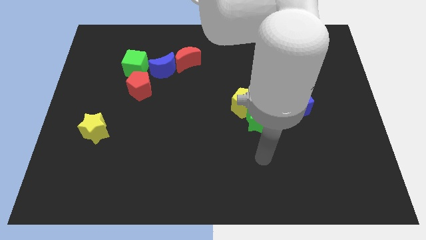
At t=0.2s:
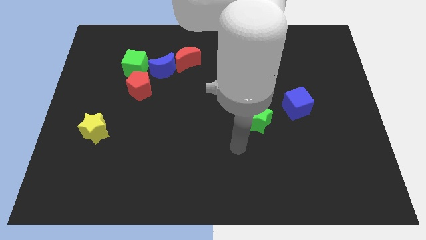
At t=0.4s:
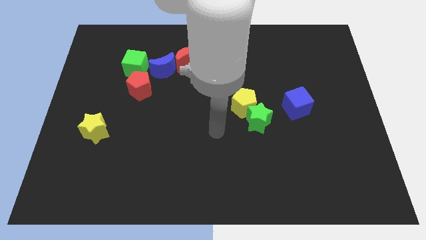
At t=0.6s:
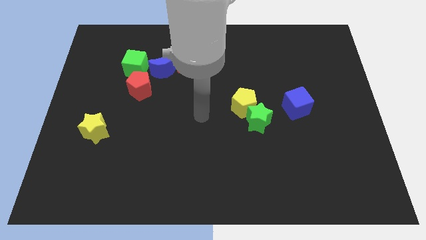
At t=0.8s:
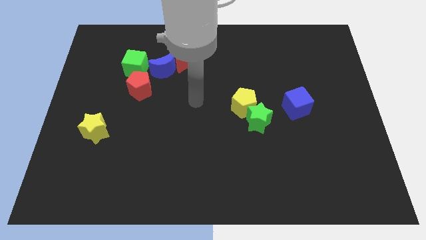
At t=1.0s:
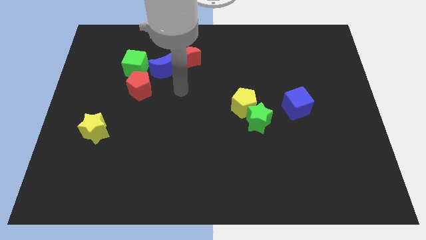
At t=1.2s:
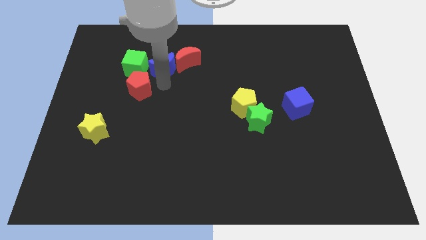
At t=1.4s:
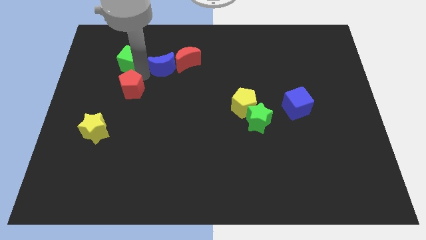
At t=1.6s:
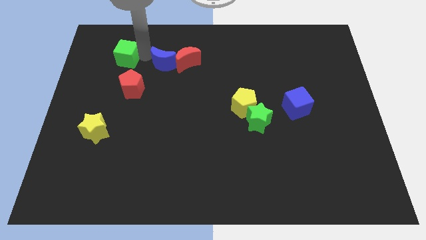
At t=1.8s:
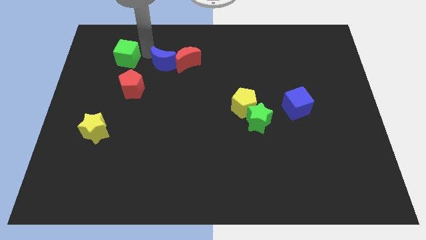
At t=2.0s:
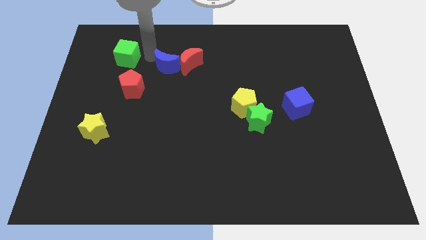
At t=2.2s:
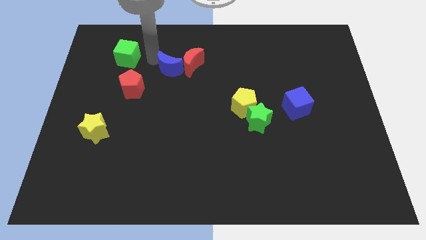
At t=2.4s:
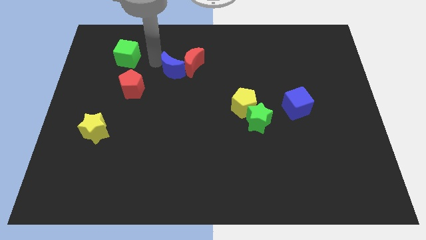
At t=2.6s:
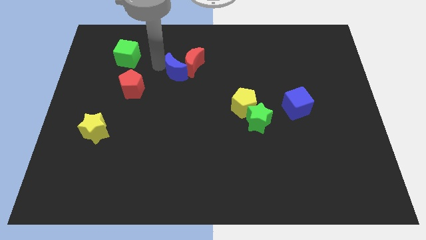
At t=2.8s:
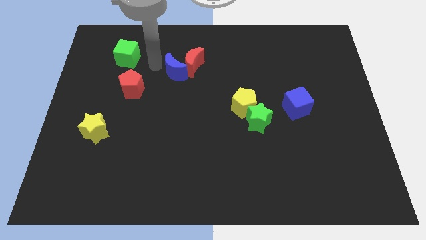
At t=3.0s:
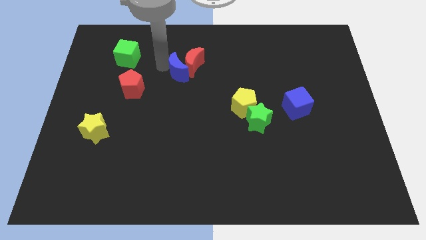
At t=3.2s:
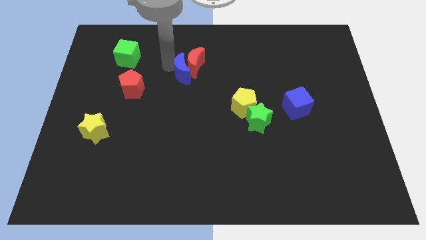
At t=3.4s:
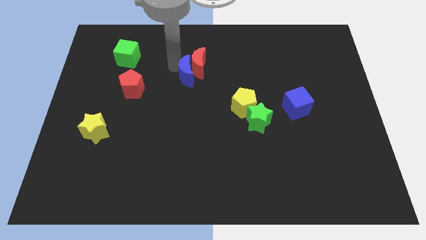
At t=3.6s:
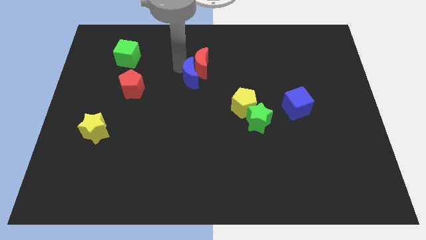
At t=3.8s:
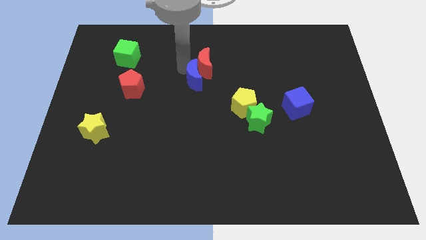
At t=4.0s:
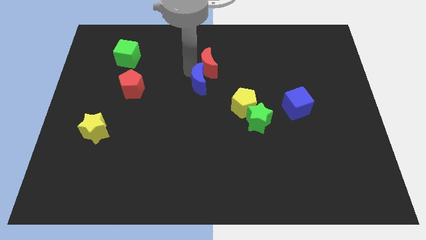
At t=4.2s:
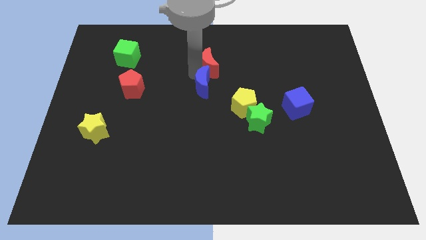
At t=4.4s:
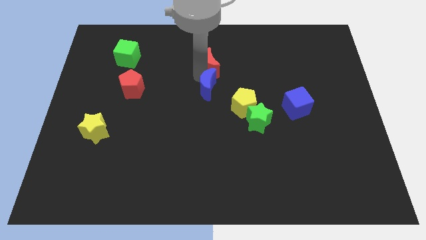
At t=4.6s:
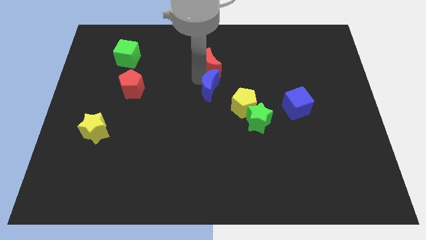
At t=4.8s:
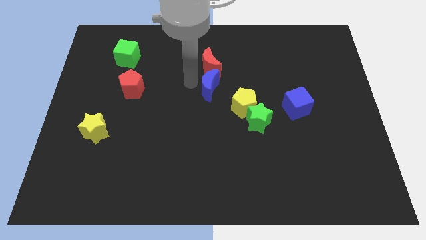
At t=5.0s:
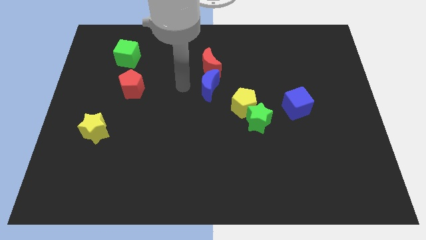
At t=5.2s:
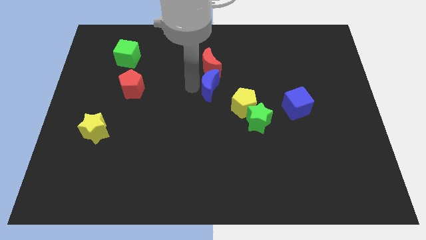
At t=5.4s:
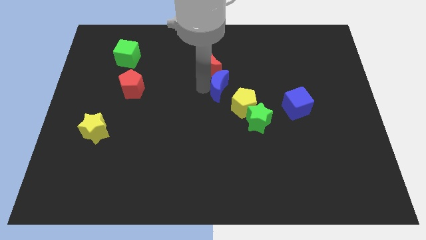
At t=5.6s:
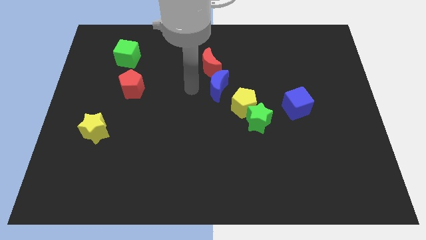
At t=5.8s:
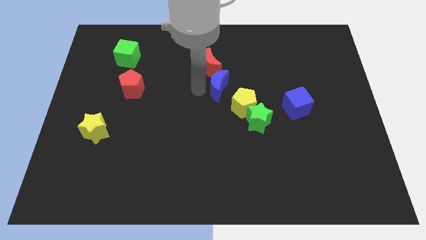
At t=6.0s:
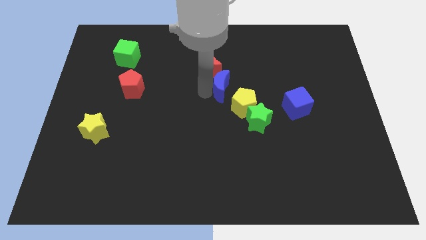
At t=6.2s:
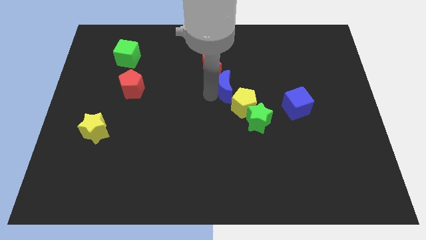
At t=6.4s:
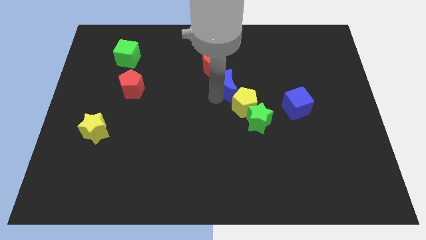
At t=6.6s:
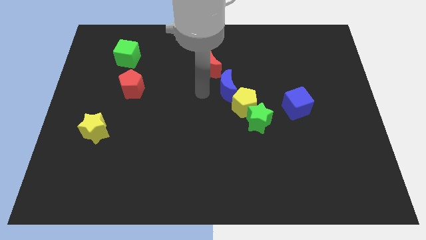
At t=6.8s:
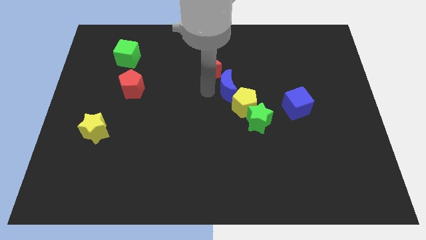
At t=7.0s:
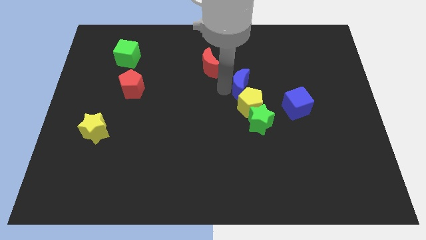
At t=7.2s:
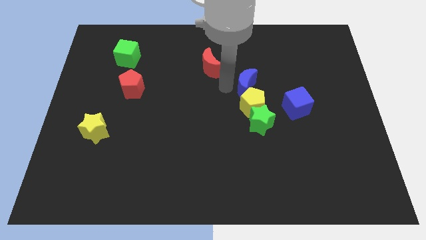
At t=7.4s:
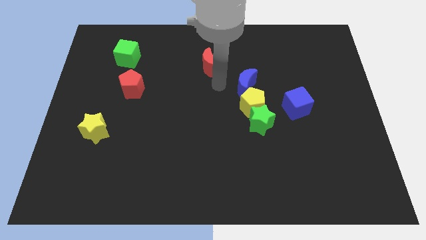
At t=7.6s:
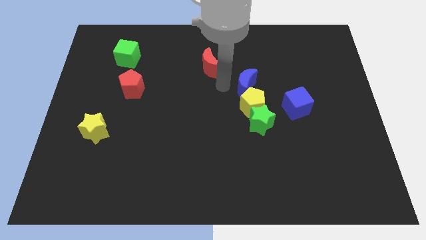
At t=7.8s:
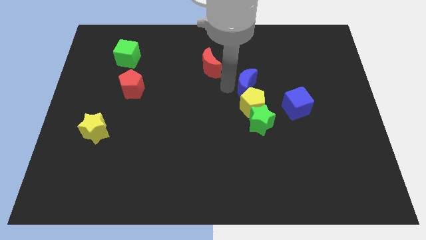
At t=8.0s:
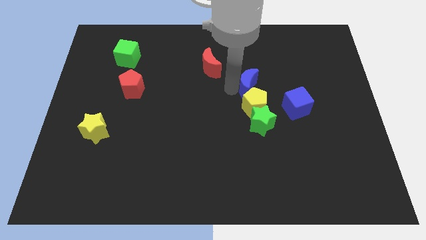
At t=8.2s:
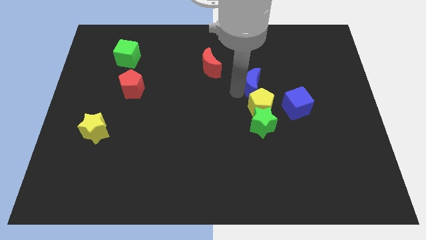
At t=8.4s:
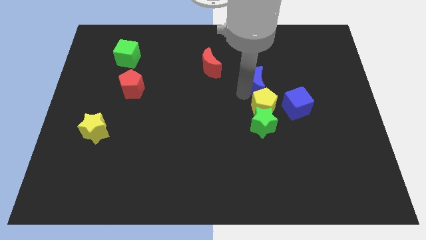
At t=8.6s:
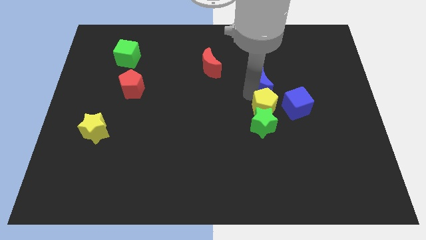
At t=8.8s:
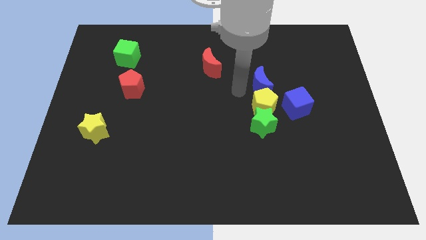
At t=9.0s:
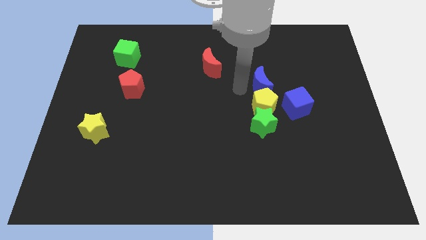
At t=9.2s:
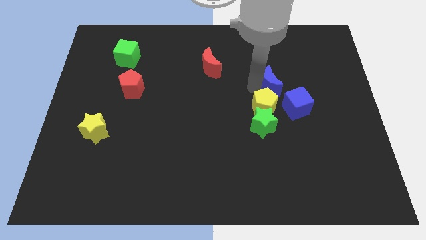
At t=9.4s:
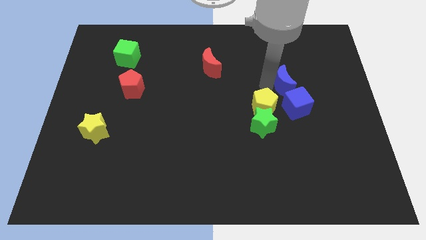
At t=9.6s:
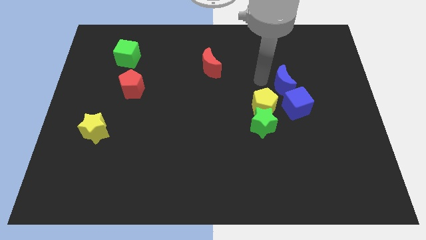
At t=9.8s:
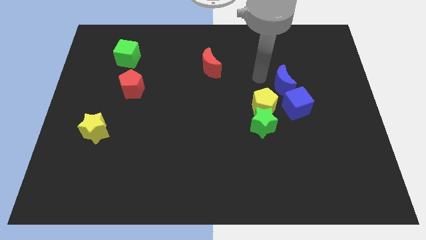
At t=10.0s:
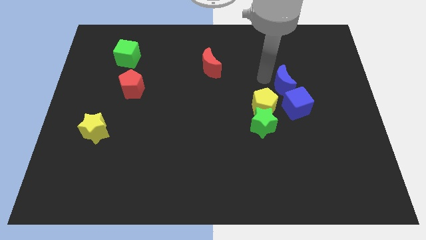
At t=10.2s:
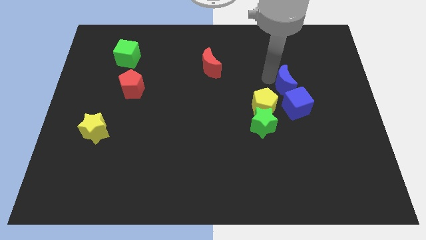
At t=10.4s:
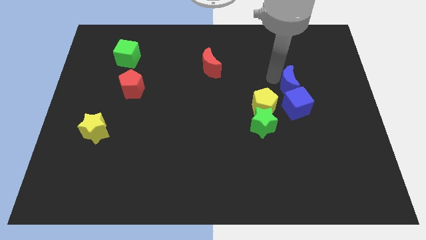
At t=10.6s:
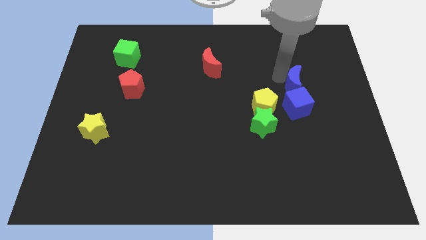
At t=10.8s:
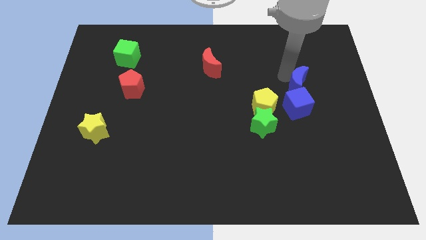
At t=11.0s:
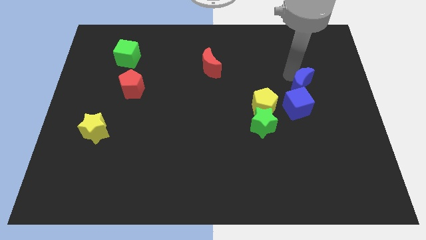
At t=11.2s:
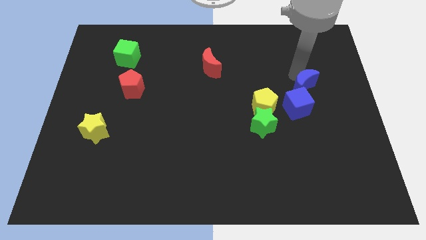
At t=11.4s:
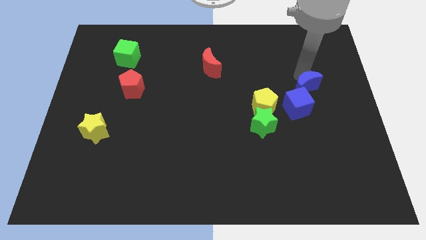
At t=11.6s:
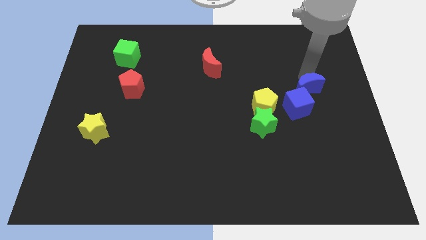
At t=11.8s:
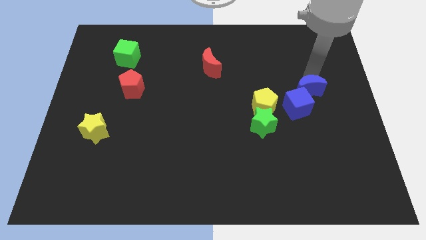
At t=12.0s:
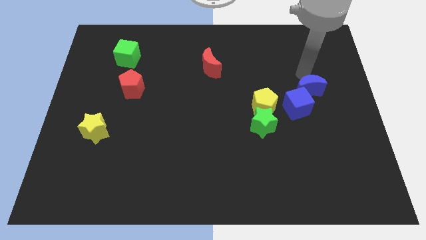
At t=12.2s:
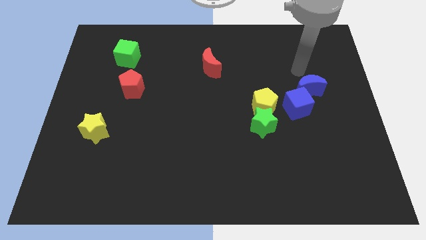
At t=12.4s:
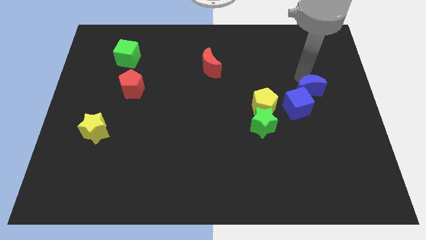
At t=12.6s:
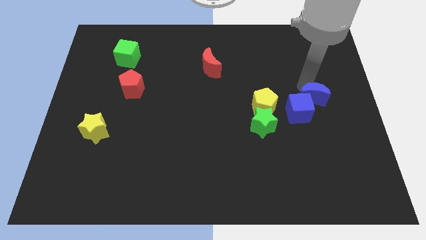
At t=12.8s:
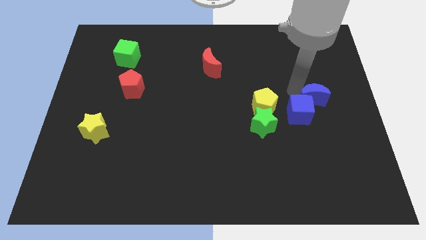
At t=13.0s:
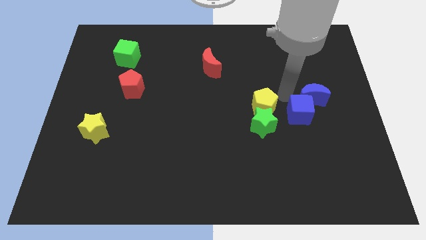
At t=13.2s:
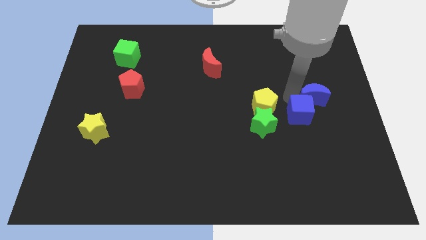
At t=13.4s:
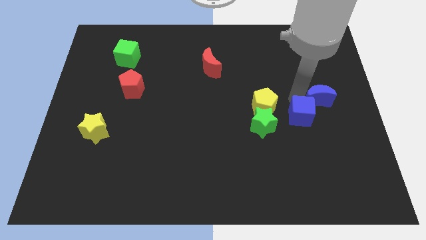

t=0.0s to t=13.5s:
put the blue moon to the right side of the board

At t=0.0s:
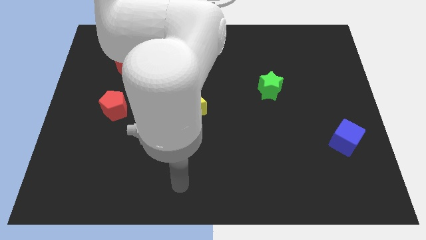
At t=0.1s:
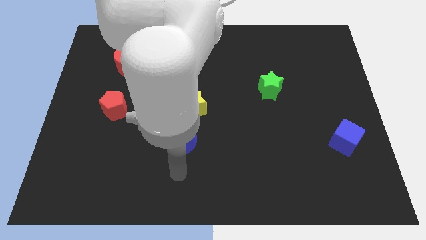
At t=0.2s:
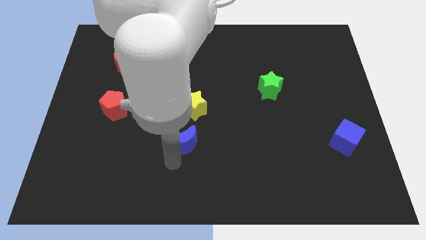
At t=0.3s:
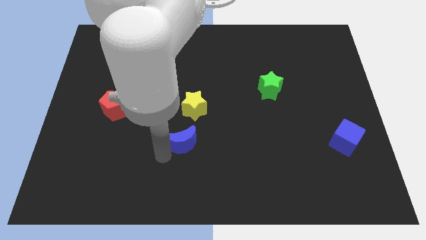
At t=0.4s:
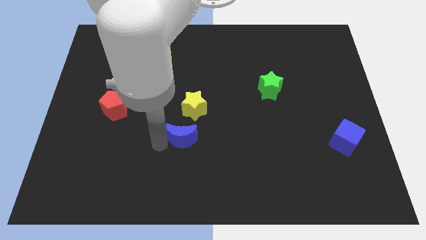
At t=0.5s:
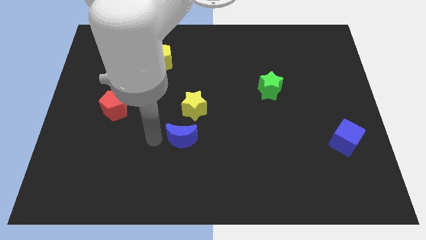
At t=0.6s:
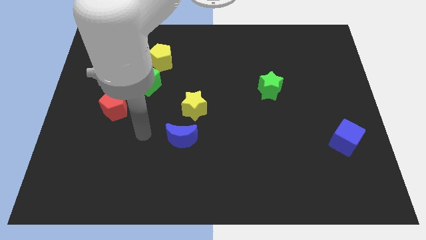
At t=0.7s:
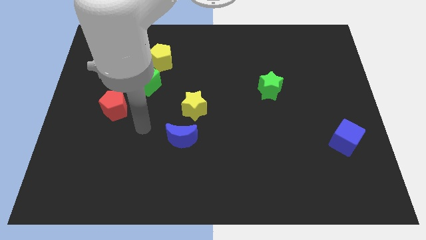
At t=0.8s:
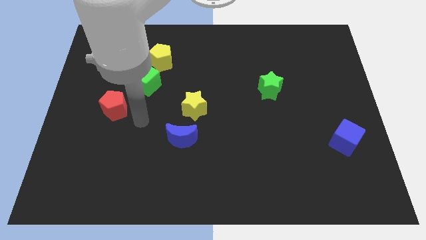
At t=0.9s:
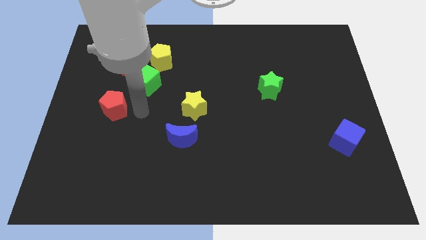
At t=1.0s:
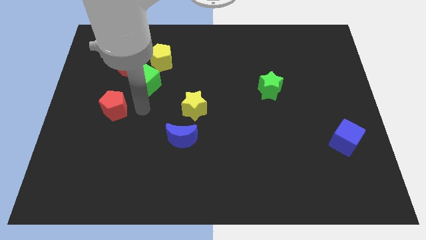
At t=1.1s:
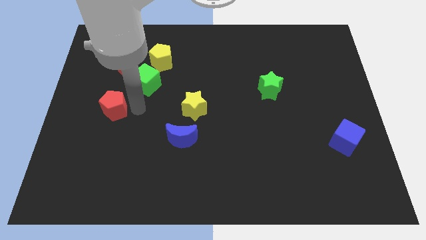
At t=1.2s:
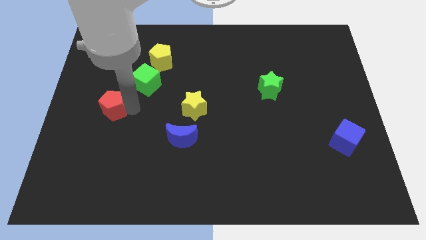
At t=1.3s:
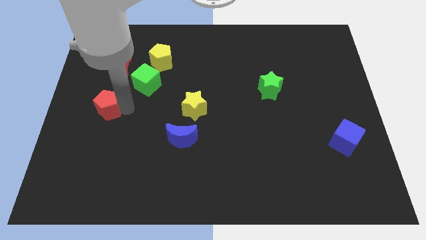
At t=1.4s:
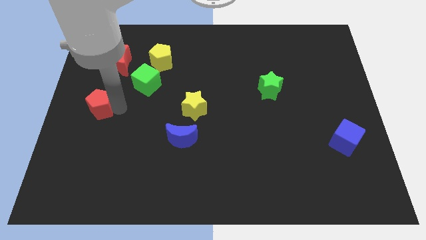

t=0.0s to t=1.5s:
push the red pentagon to the left side
